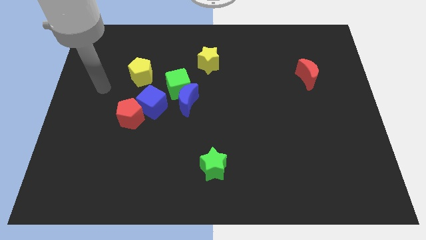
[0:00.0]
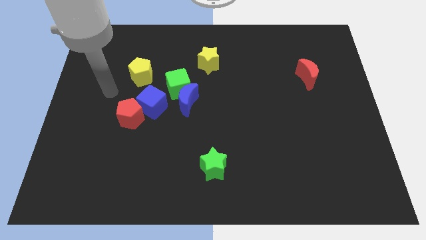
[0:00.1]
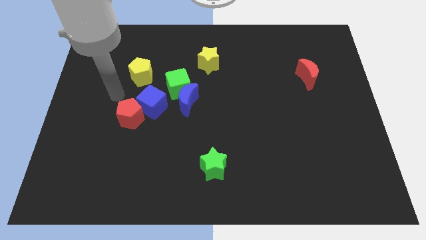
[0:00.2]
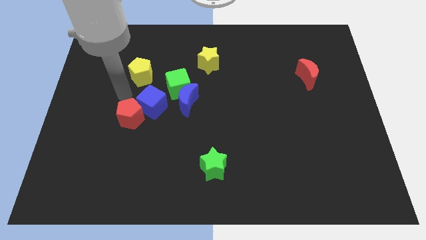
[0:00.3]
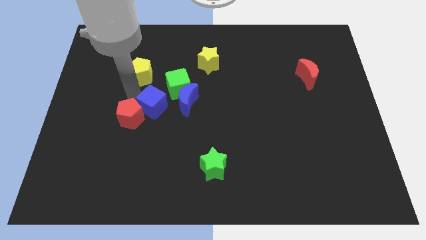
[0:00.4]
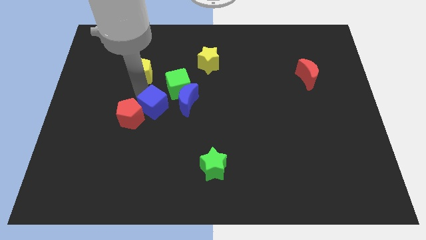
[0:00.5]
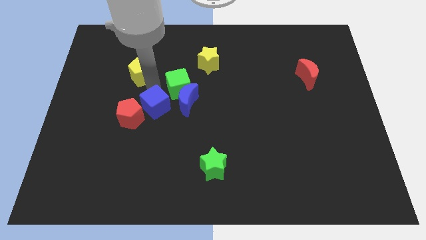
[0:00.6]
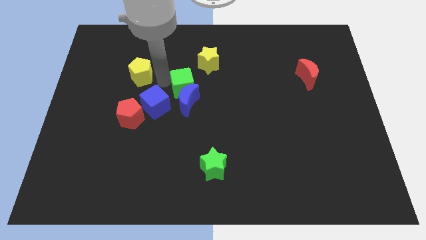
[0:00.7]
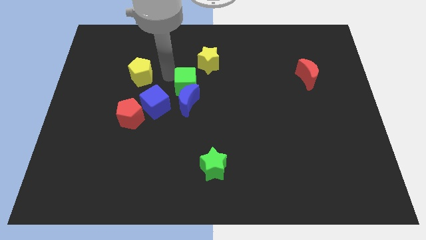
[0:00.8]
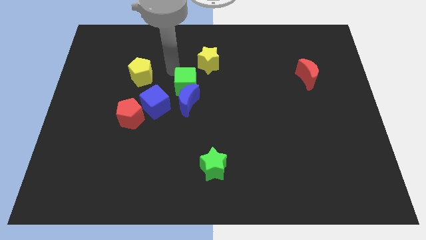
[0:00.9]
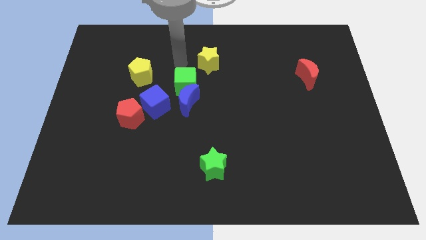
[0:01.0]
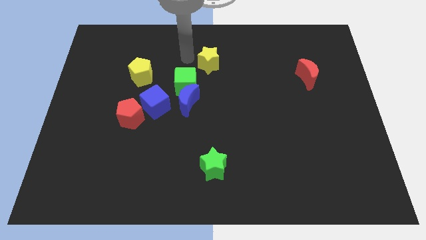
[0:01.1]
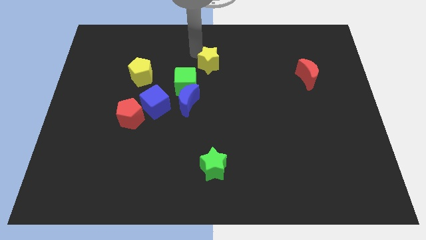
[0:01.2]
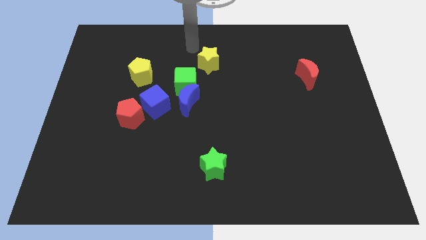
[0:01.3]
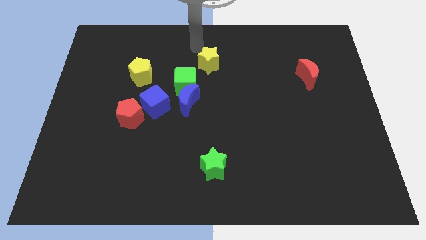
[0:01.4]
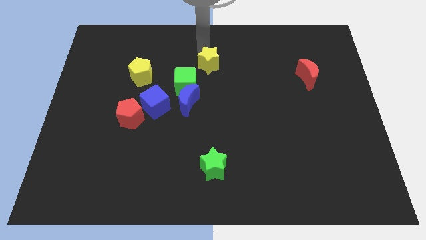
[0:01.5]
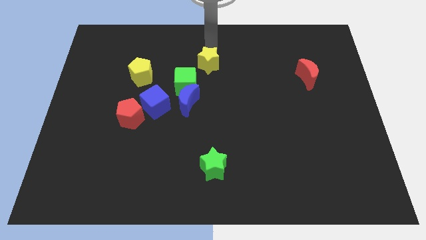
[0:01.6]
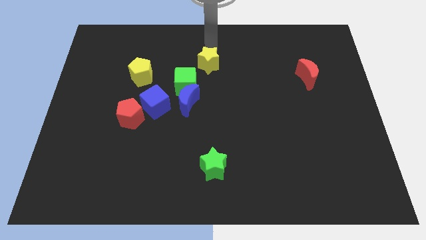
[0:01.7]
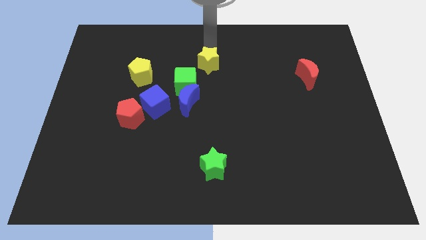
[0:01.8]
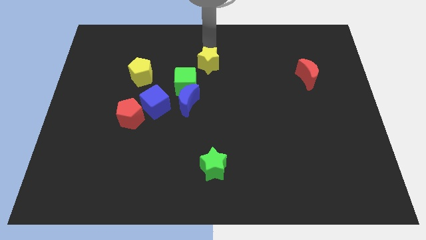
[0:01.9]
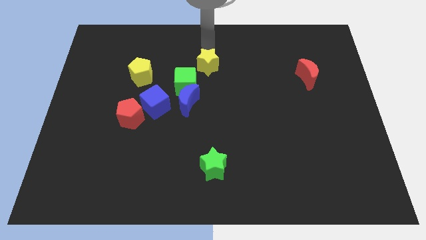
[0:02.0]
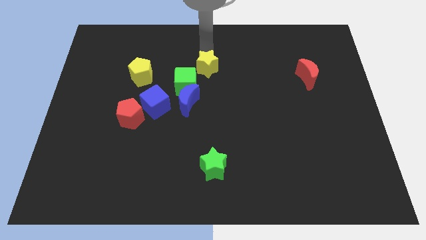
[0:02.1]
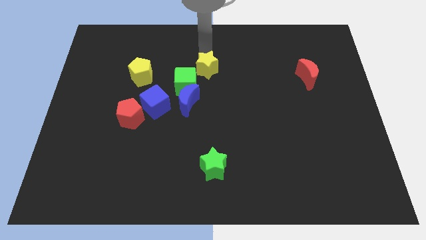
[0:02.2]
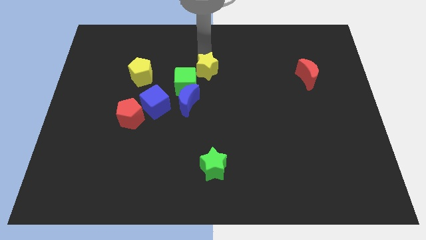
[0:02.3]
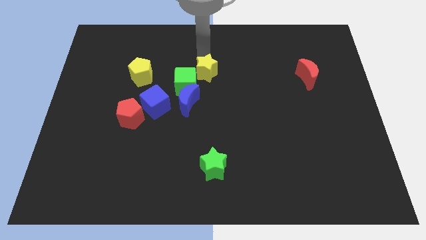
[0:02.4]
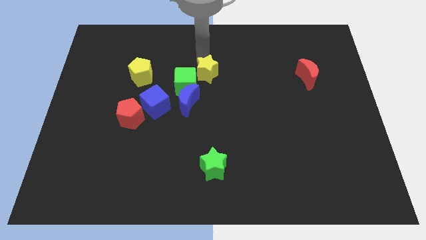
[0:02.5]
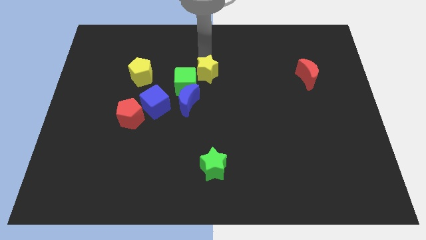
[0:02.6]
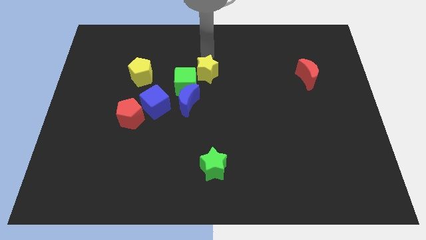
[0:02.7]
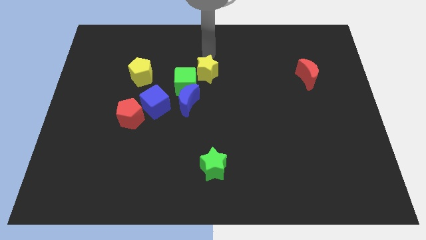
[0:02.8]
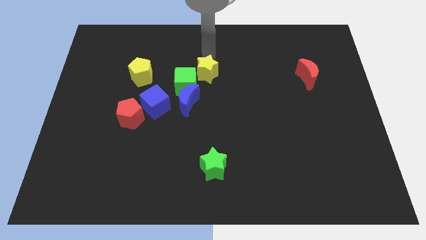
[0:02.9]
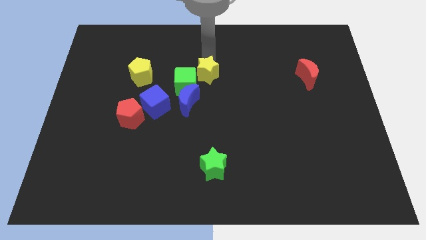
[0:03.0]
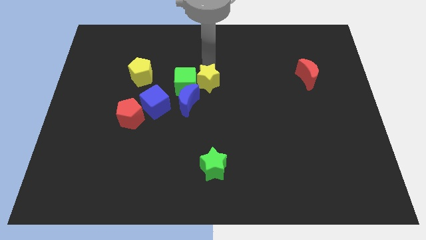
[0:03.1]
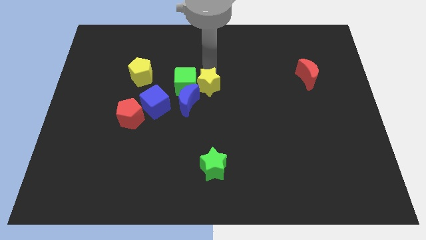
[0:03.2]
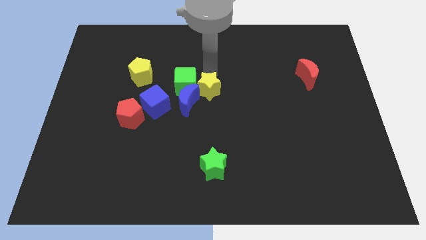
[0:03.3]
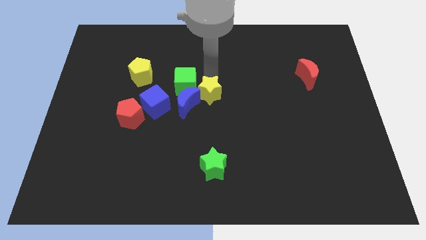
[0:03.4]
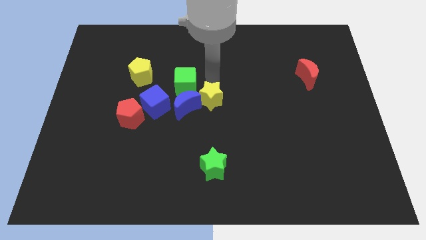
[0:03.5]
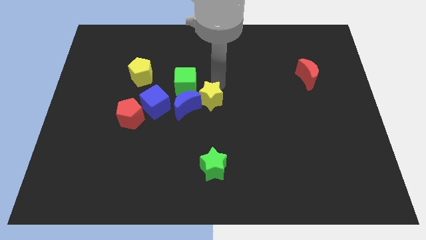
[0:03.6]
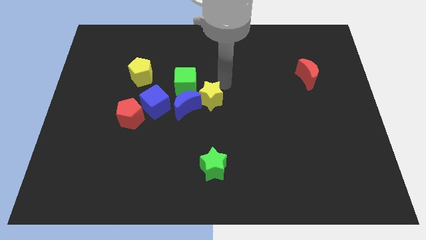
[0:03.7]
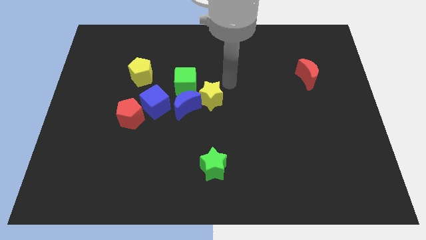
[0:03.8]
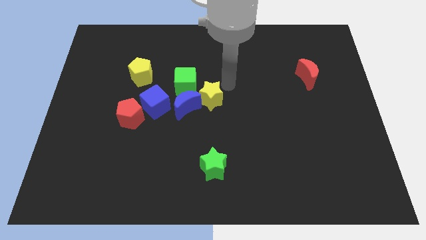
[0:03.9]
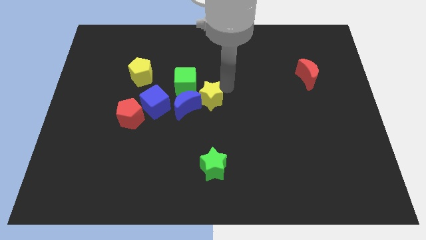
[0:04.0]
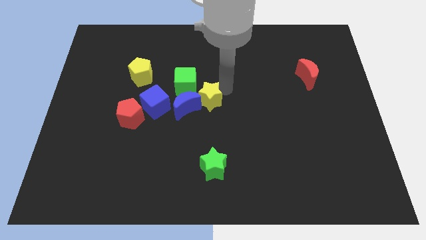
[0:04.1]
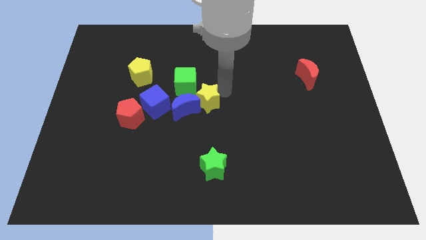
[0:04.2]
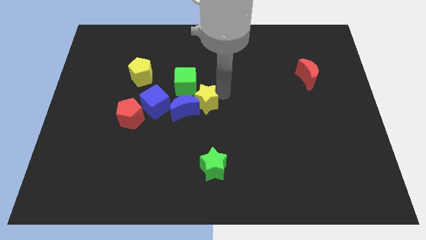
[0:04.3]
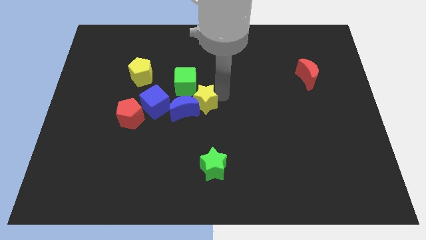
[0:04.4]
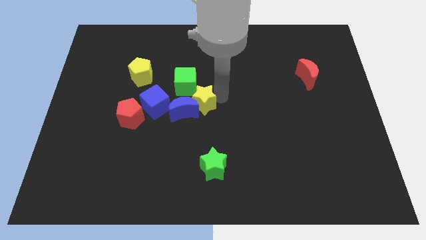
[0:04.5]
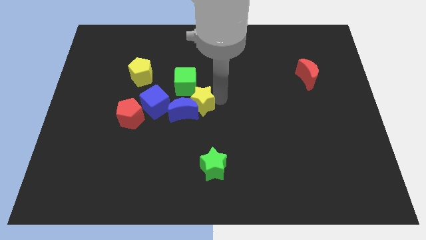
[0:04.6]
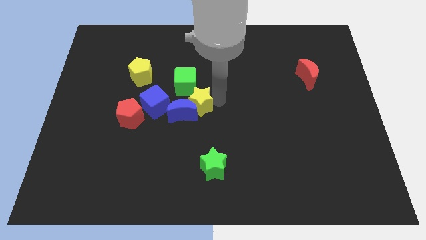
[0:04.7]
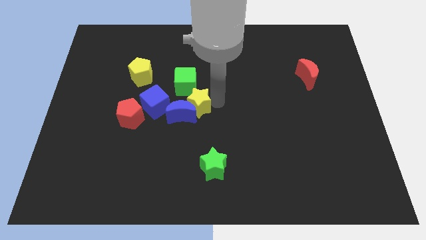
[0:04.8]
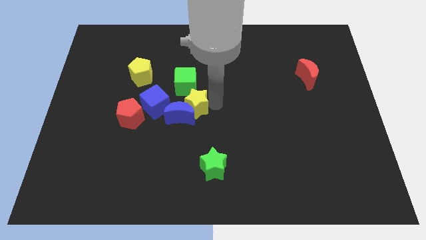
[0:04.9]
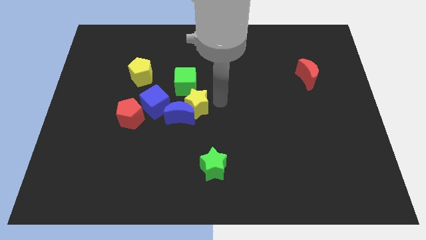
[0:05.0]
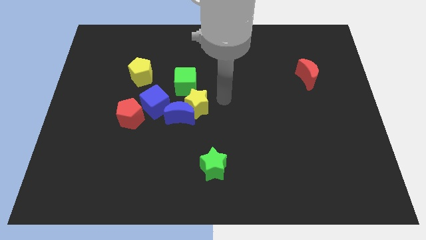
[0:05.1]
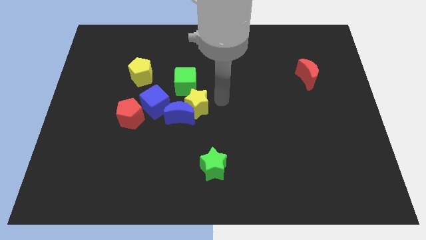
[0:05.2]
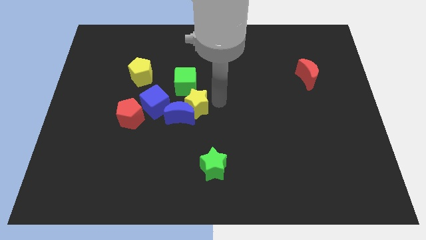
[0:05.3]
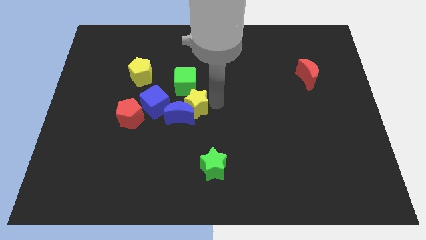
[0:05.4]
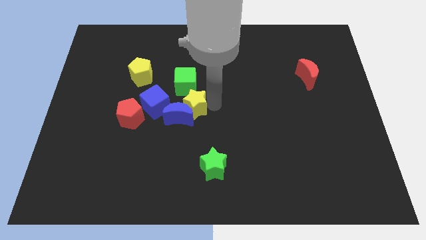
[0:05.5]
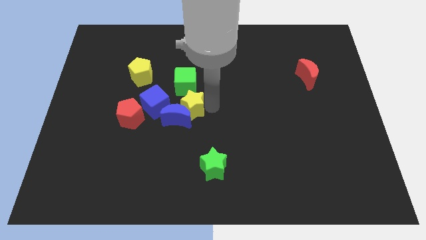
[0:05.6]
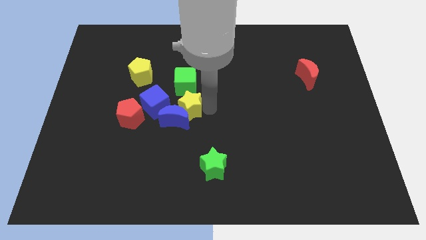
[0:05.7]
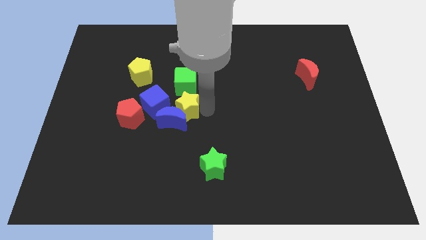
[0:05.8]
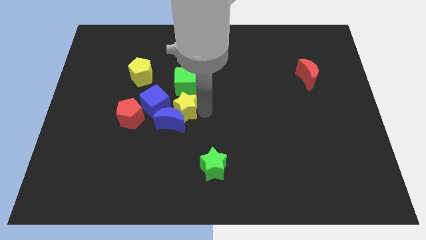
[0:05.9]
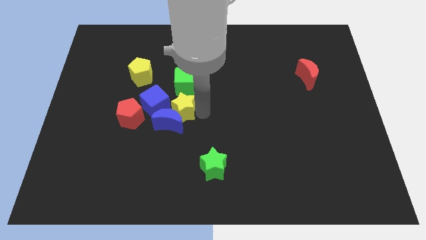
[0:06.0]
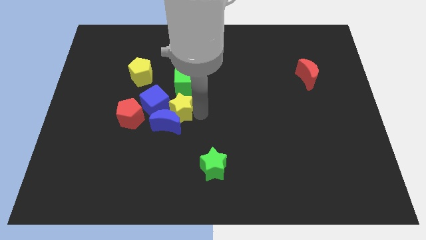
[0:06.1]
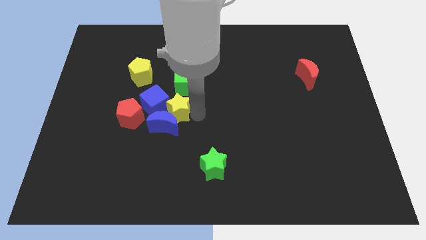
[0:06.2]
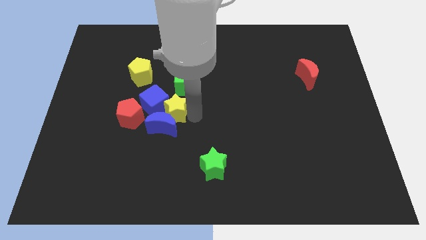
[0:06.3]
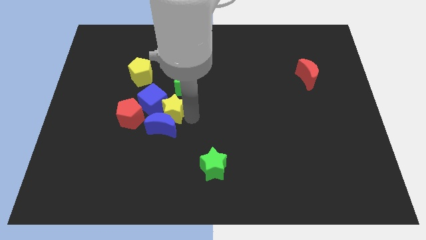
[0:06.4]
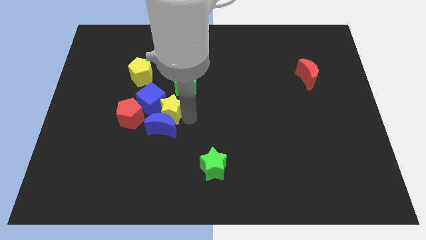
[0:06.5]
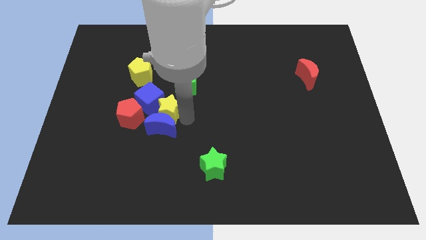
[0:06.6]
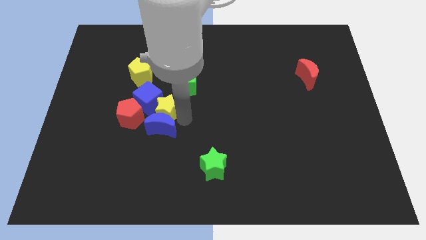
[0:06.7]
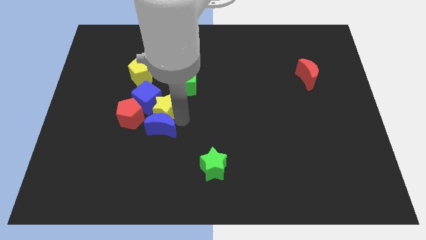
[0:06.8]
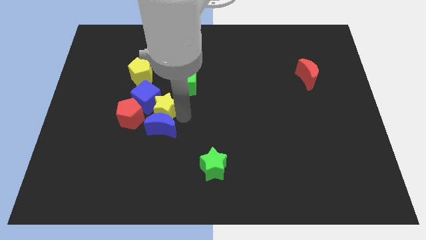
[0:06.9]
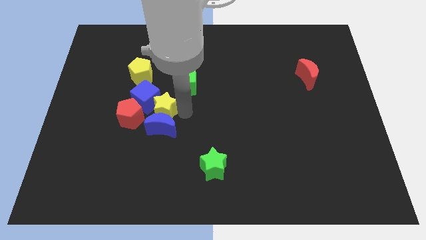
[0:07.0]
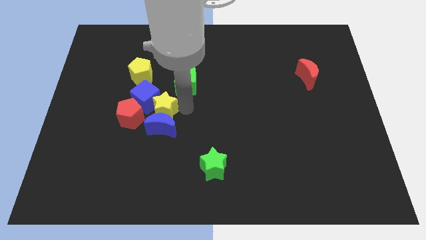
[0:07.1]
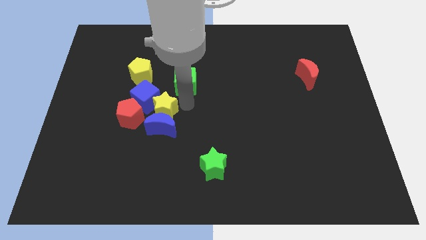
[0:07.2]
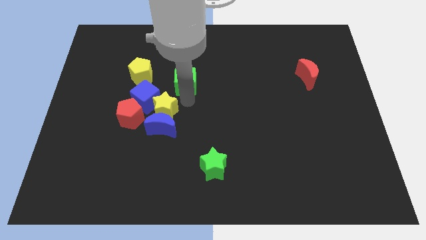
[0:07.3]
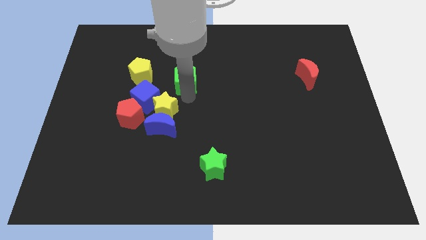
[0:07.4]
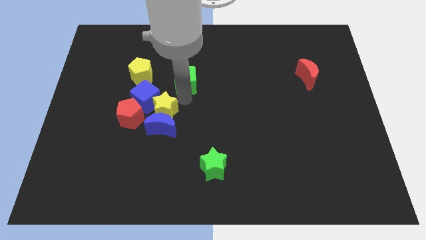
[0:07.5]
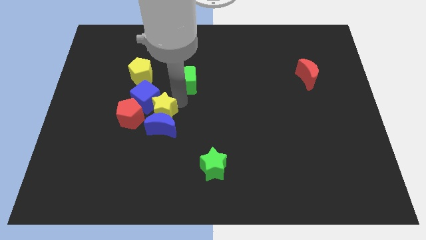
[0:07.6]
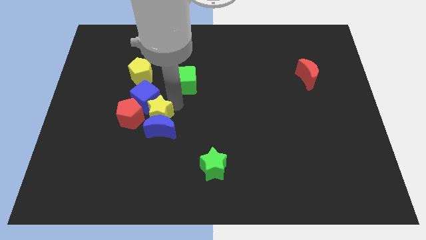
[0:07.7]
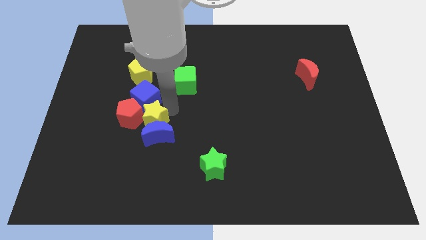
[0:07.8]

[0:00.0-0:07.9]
slide the yellow star towards the red pentagon

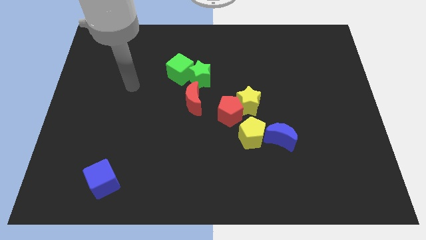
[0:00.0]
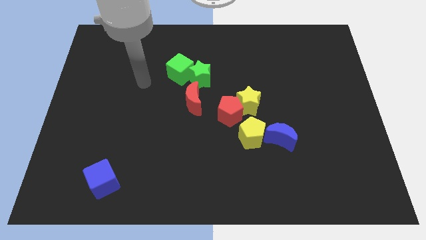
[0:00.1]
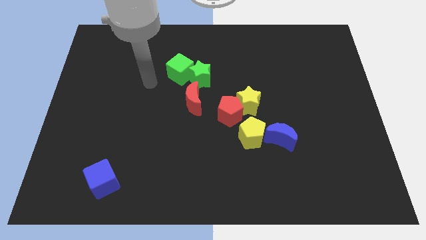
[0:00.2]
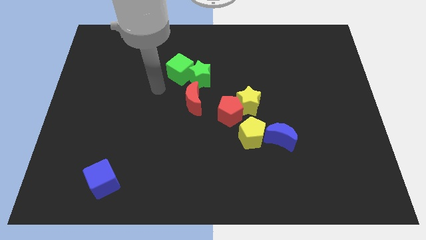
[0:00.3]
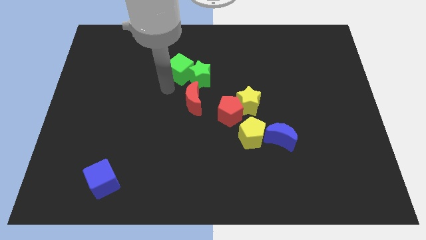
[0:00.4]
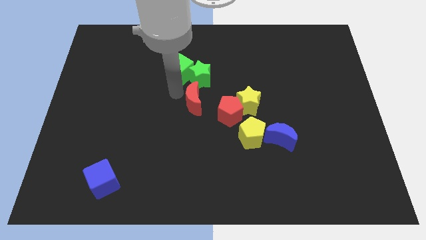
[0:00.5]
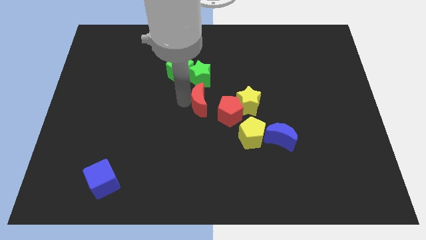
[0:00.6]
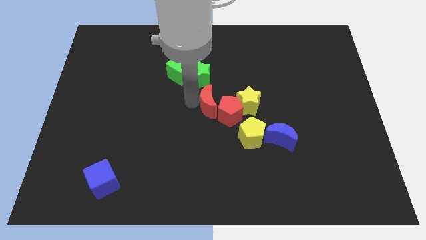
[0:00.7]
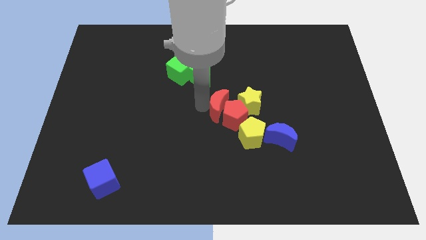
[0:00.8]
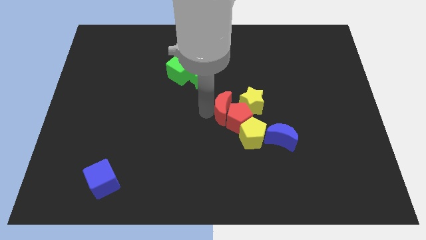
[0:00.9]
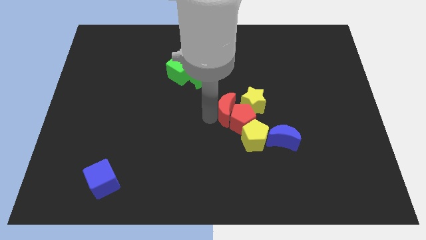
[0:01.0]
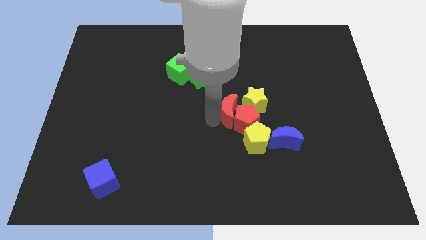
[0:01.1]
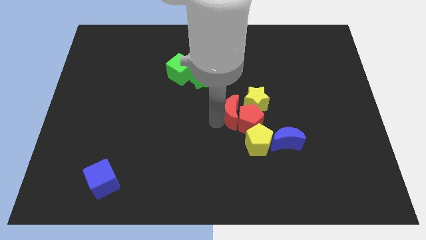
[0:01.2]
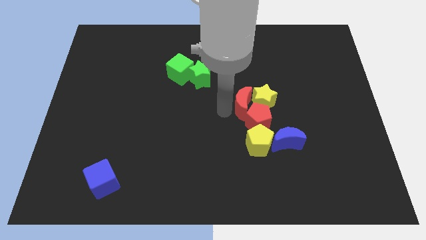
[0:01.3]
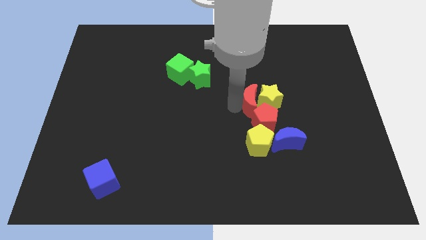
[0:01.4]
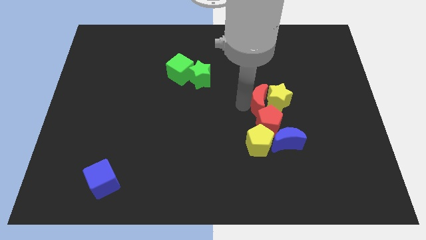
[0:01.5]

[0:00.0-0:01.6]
put the red pentagon to the blue moon
